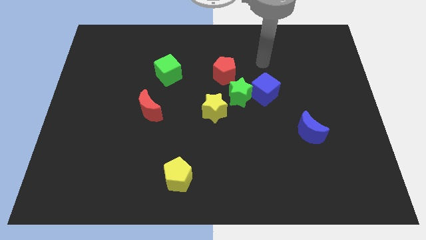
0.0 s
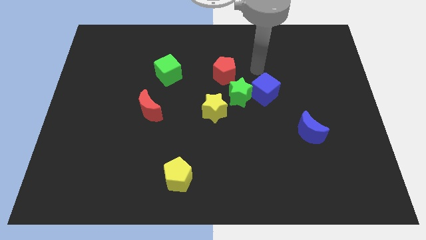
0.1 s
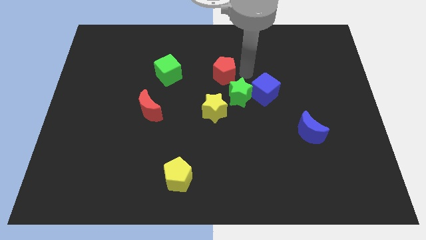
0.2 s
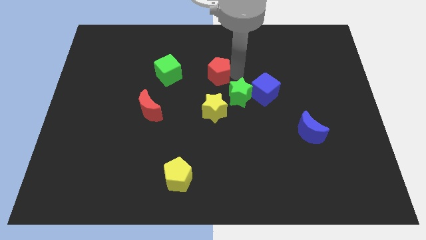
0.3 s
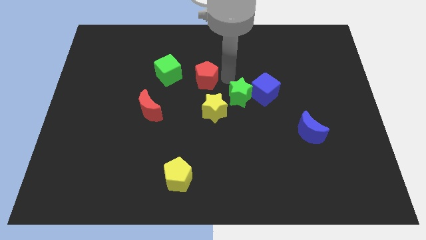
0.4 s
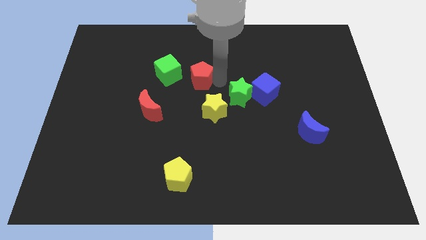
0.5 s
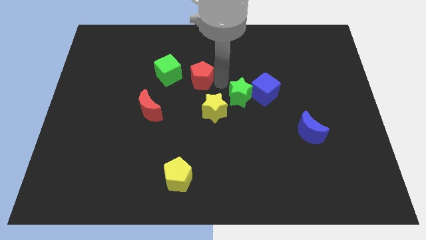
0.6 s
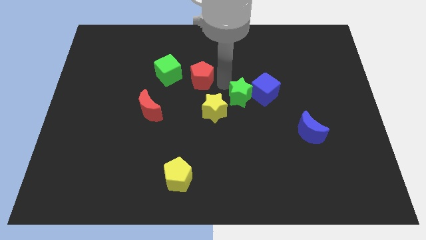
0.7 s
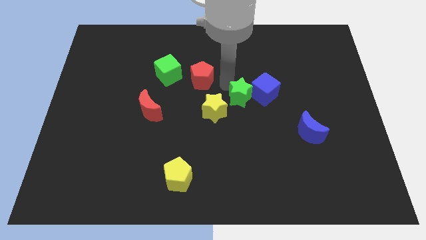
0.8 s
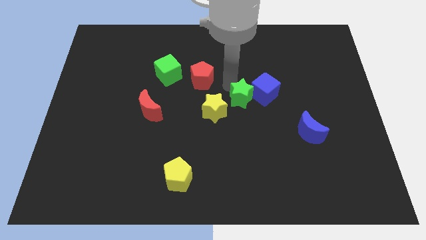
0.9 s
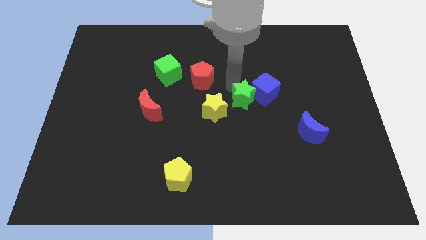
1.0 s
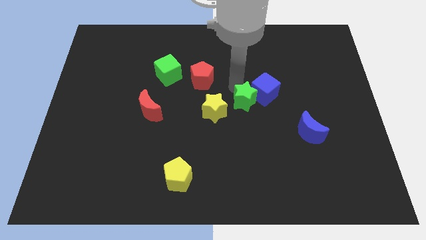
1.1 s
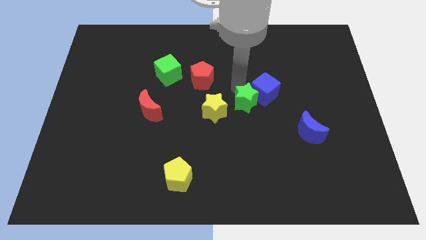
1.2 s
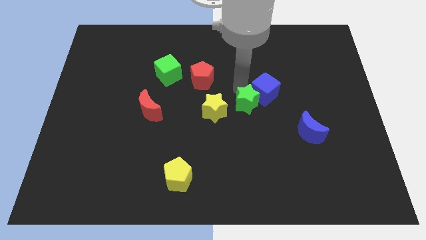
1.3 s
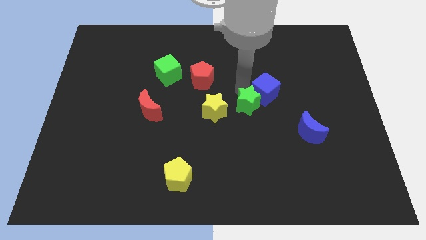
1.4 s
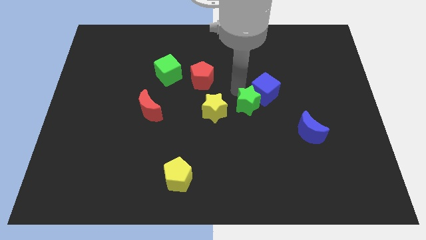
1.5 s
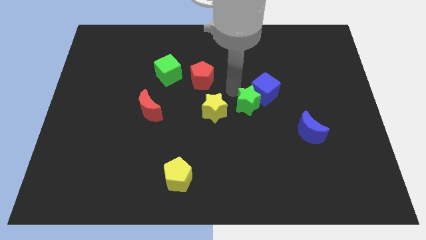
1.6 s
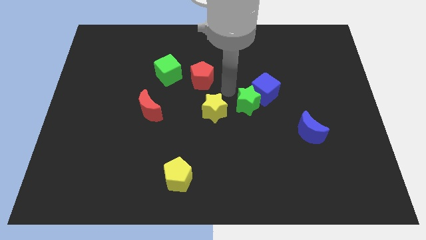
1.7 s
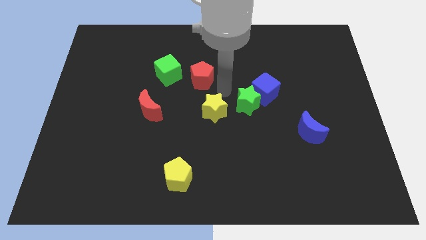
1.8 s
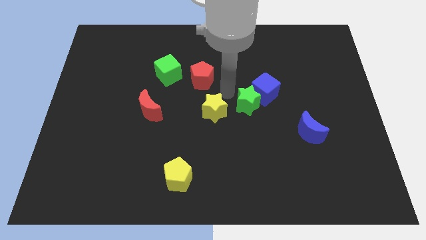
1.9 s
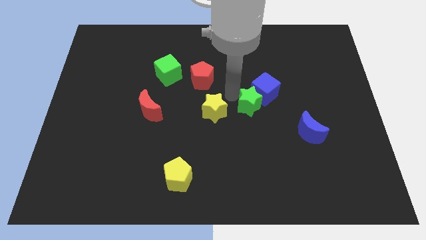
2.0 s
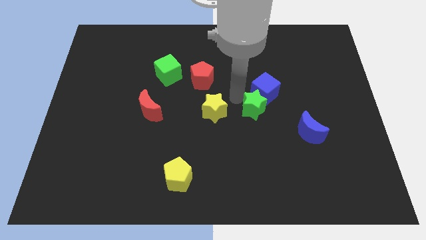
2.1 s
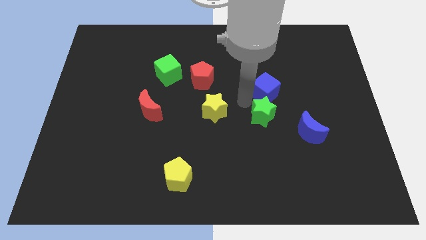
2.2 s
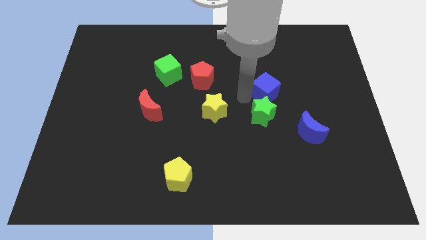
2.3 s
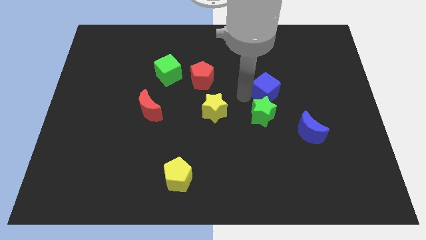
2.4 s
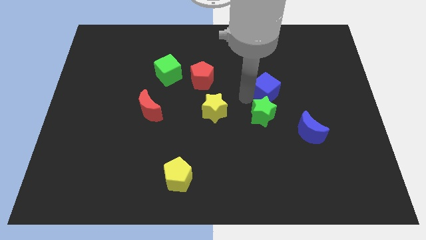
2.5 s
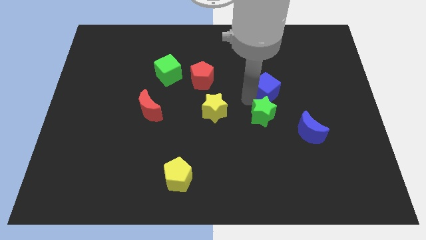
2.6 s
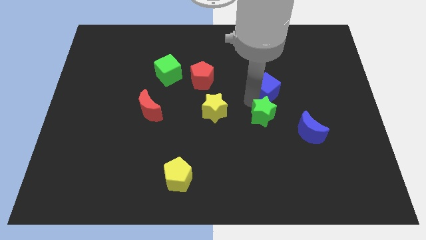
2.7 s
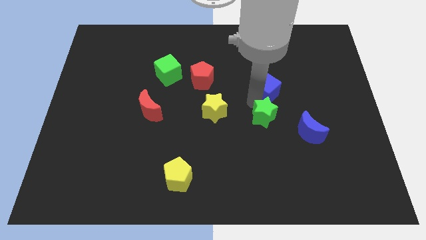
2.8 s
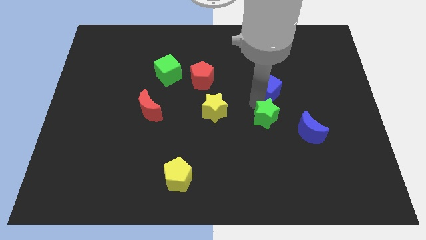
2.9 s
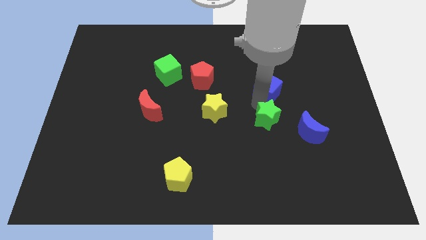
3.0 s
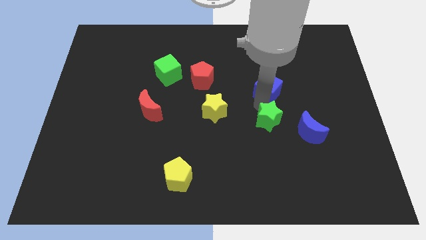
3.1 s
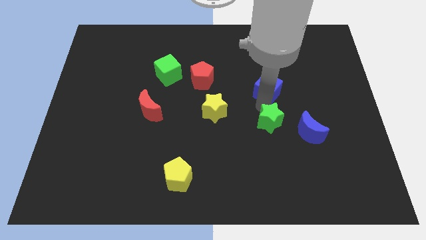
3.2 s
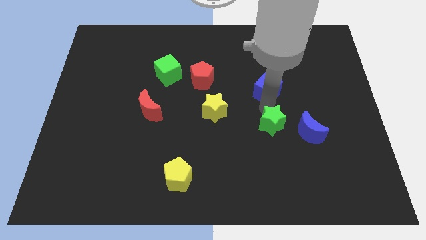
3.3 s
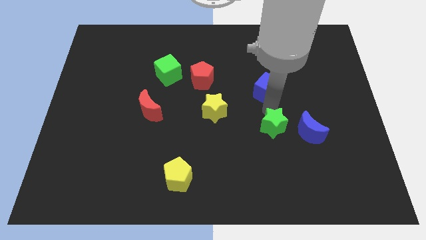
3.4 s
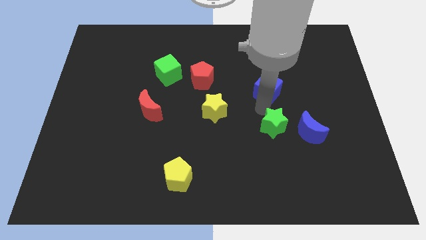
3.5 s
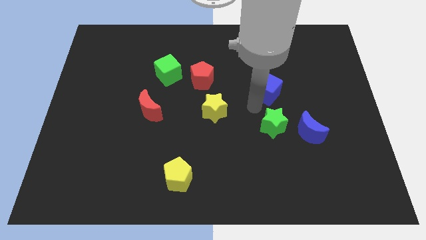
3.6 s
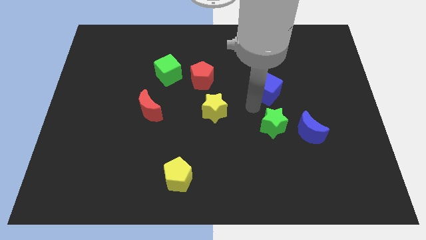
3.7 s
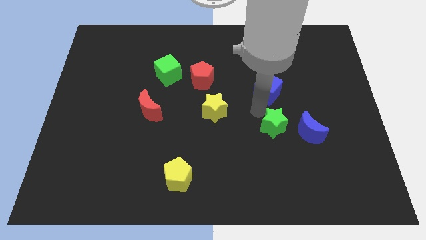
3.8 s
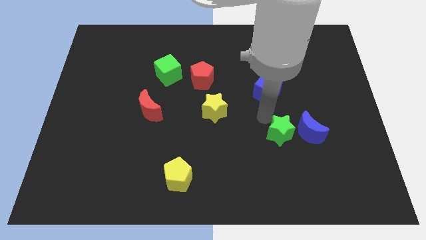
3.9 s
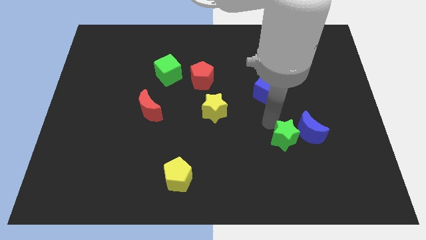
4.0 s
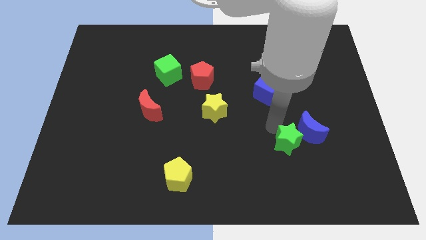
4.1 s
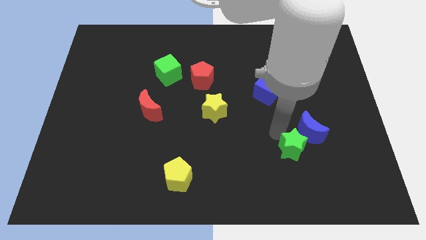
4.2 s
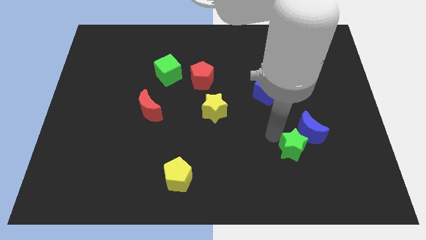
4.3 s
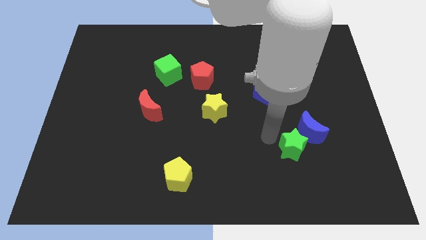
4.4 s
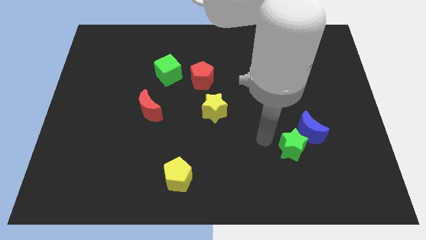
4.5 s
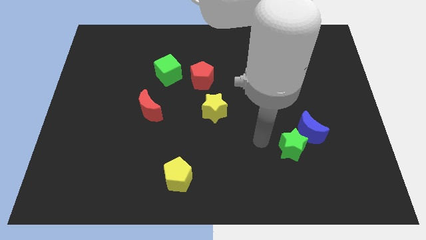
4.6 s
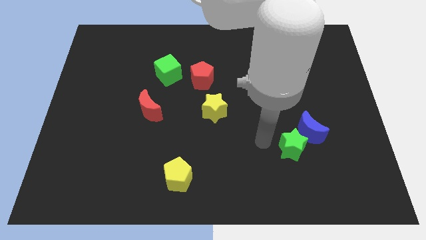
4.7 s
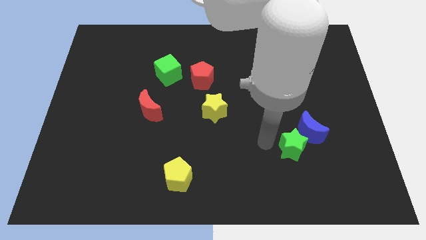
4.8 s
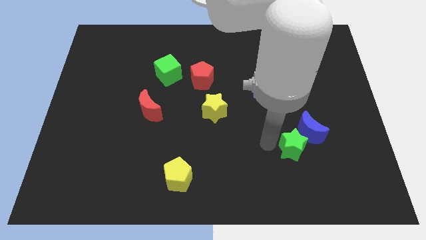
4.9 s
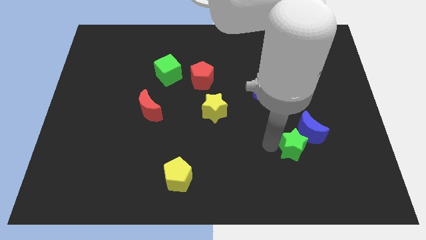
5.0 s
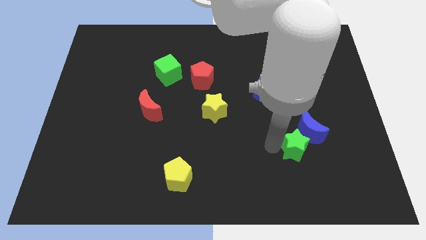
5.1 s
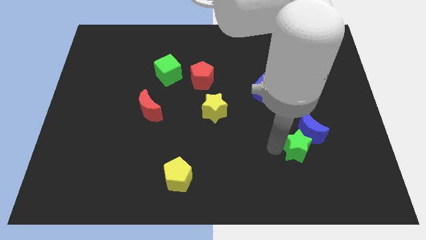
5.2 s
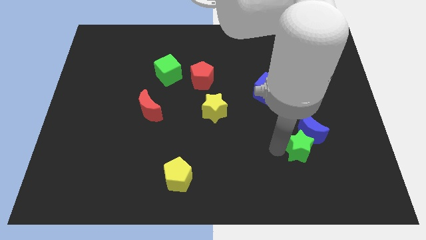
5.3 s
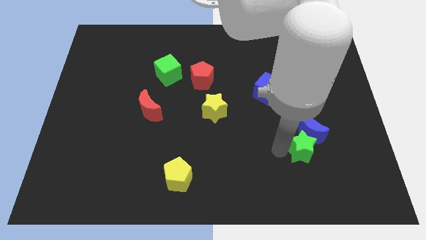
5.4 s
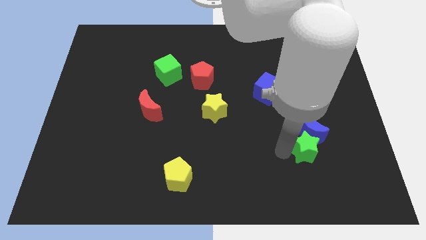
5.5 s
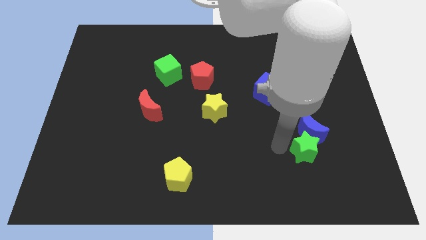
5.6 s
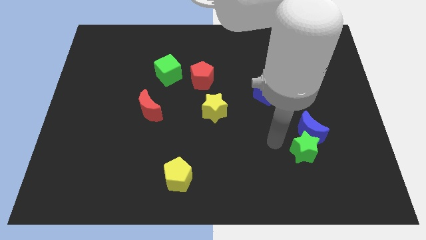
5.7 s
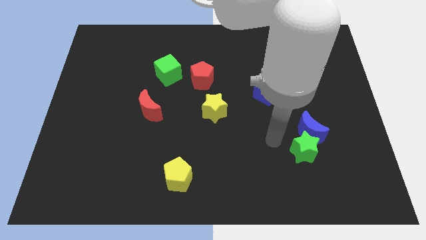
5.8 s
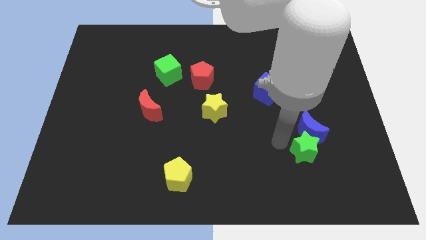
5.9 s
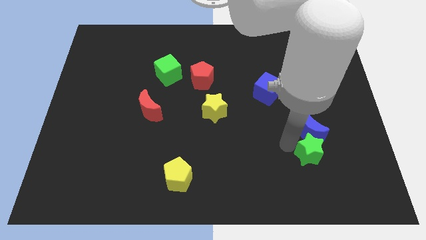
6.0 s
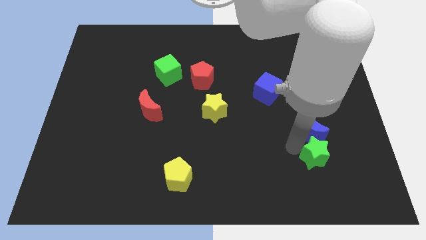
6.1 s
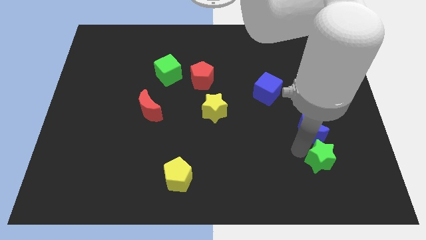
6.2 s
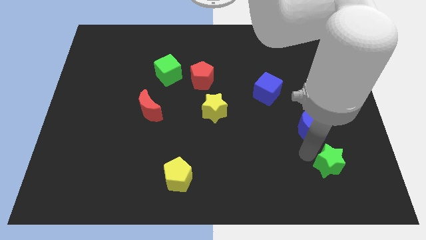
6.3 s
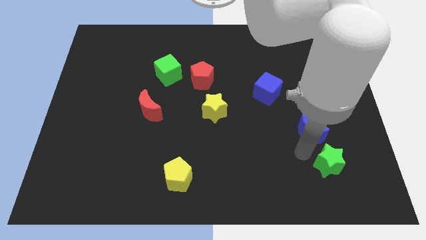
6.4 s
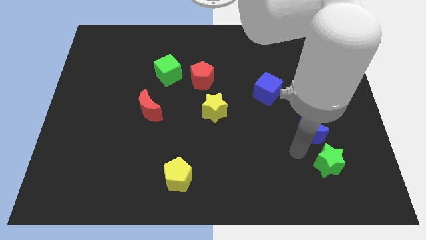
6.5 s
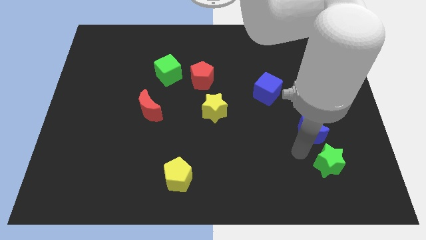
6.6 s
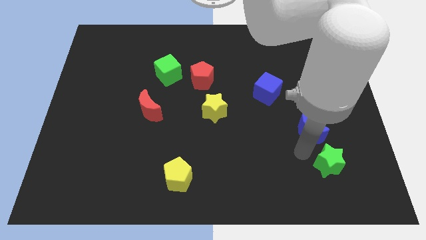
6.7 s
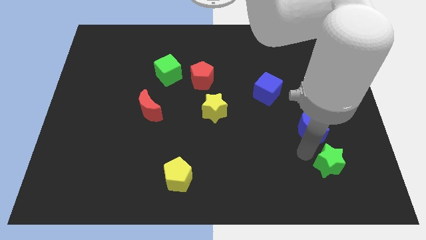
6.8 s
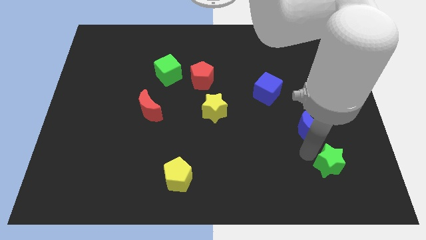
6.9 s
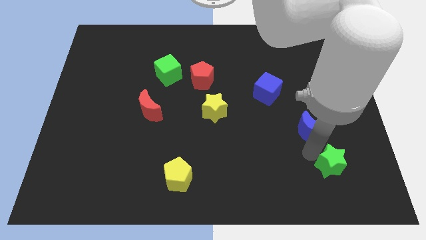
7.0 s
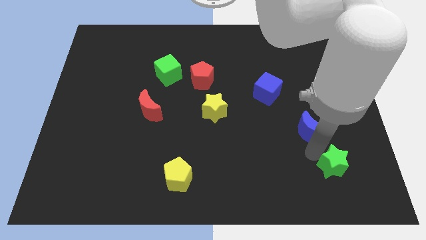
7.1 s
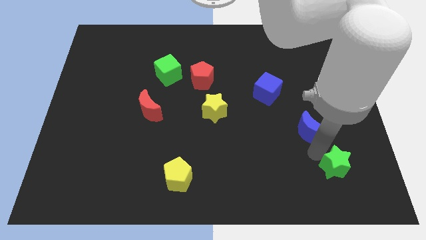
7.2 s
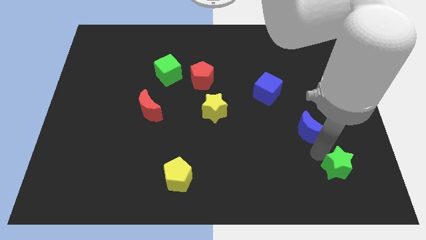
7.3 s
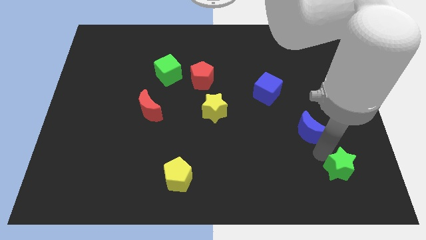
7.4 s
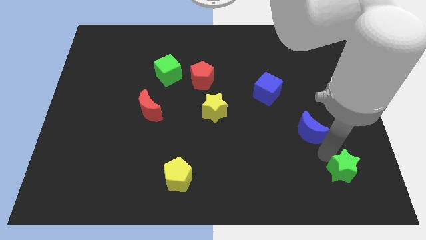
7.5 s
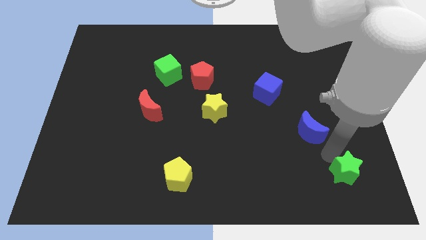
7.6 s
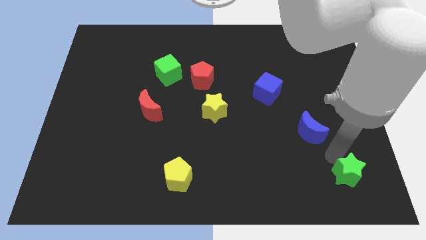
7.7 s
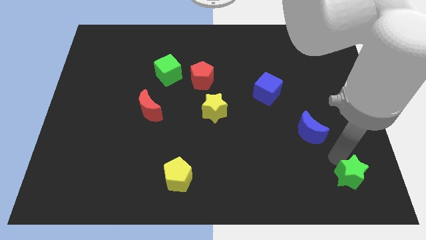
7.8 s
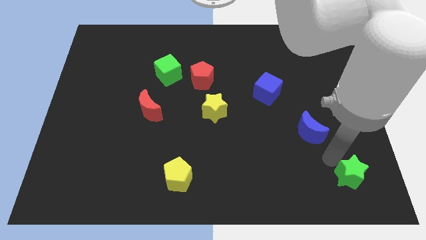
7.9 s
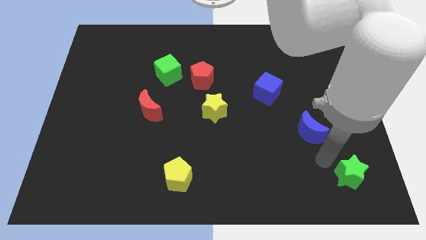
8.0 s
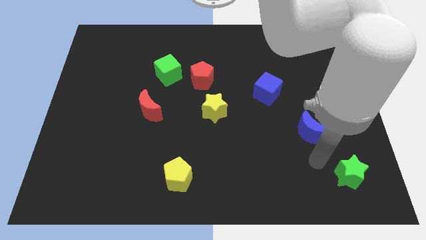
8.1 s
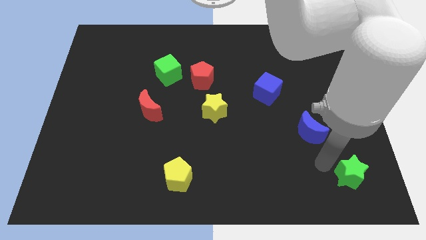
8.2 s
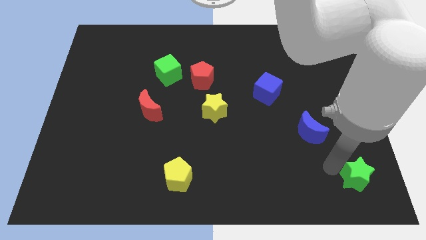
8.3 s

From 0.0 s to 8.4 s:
move the green star to the lower right corner
